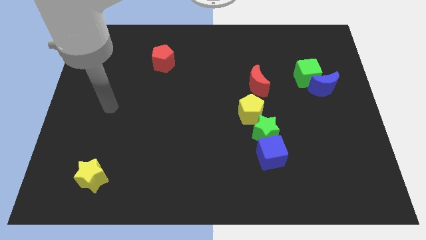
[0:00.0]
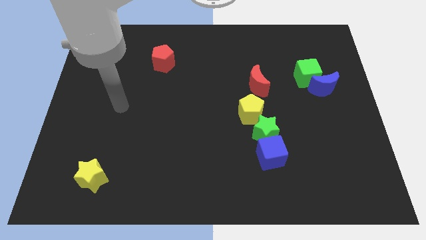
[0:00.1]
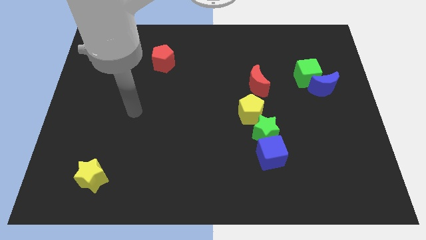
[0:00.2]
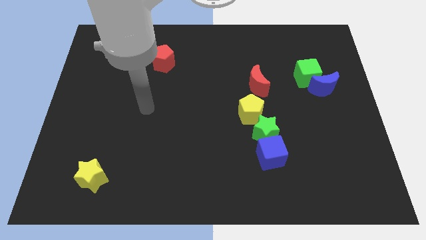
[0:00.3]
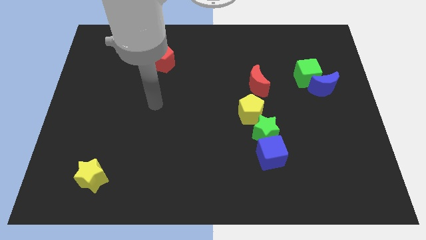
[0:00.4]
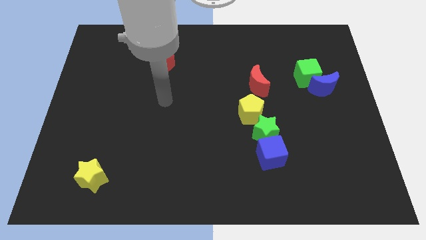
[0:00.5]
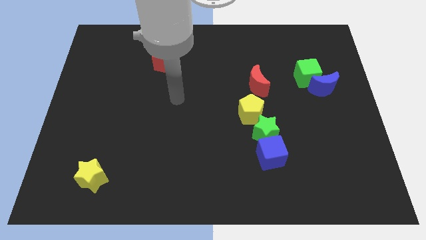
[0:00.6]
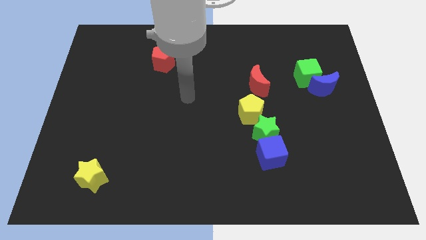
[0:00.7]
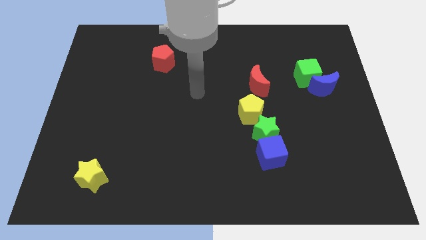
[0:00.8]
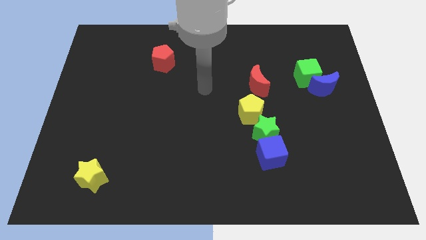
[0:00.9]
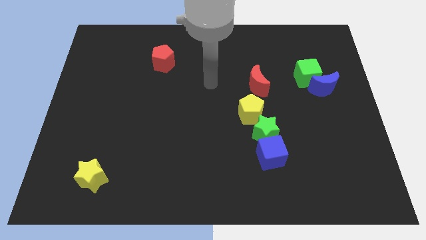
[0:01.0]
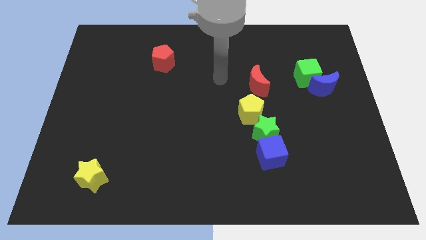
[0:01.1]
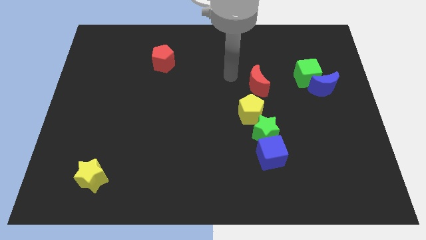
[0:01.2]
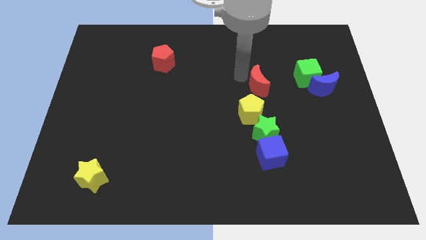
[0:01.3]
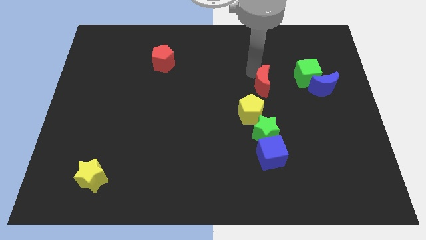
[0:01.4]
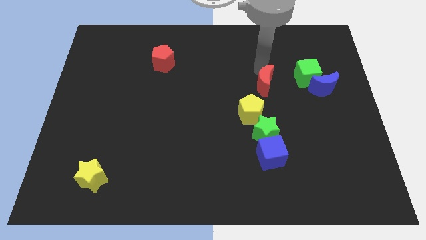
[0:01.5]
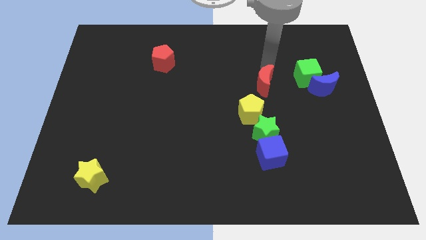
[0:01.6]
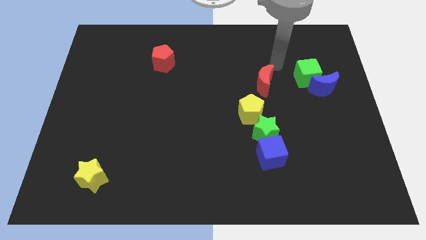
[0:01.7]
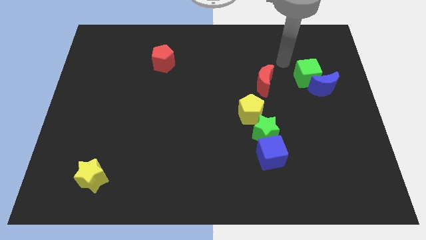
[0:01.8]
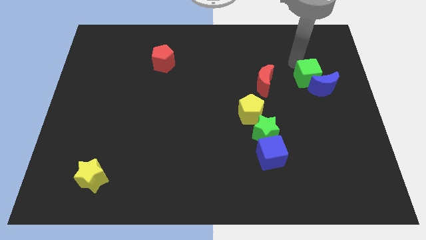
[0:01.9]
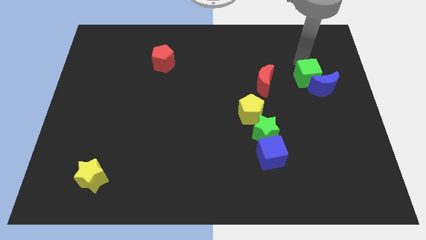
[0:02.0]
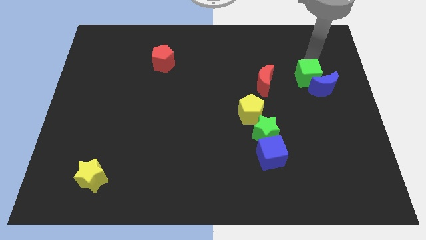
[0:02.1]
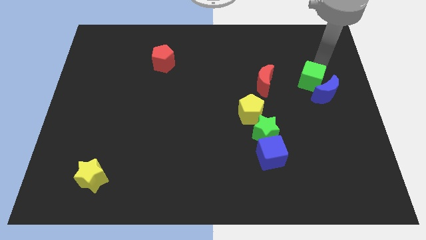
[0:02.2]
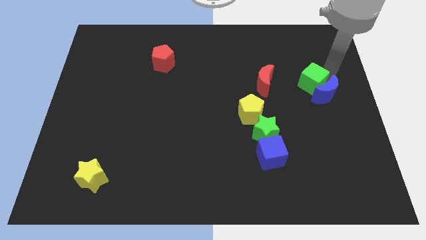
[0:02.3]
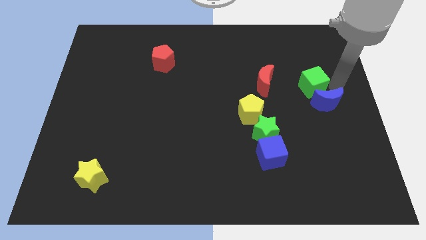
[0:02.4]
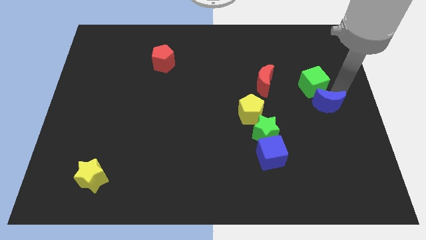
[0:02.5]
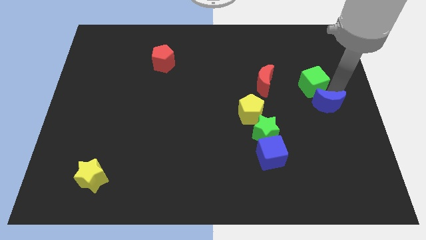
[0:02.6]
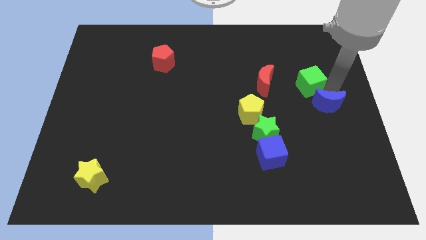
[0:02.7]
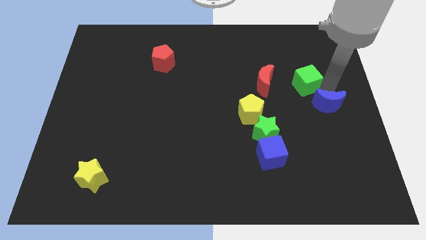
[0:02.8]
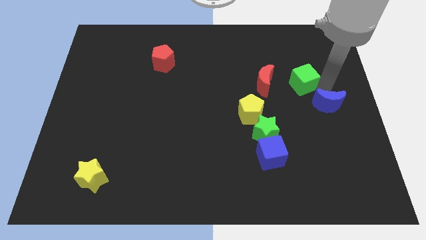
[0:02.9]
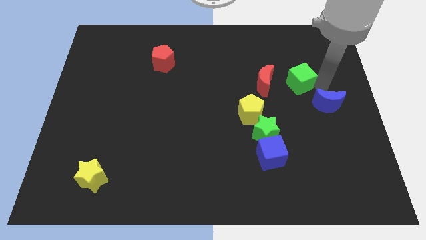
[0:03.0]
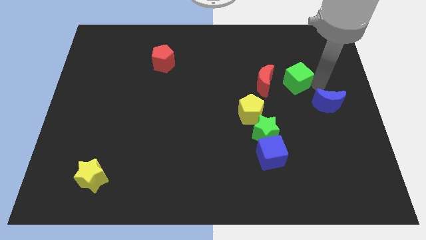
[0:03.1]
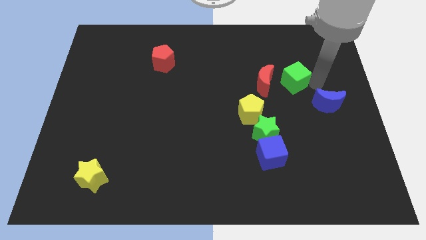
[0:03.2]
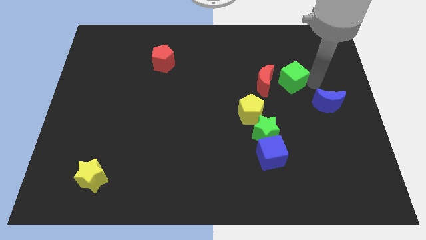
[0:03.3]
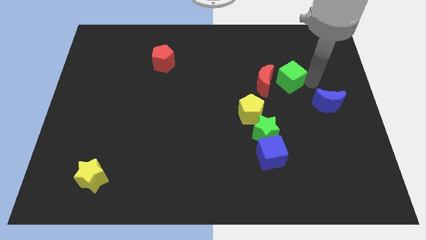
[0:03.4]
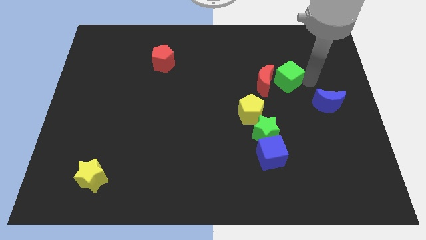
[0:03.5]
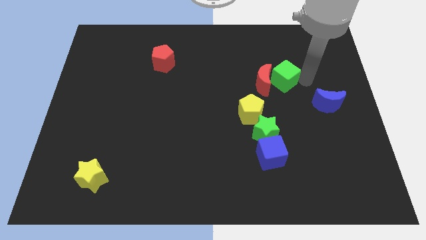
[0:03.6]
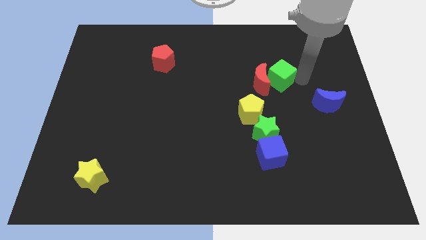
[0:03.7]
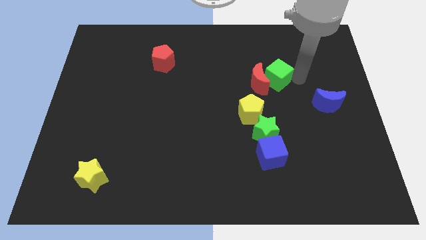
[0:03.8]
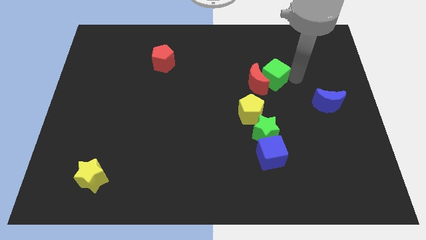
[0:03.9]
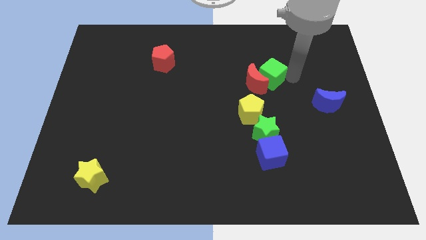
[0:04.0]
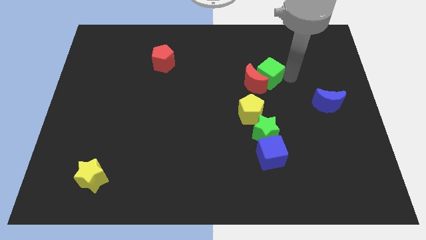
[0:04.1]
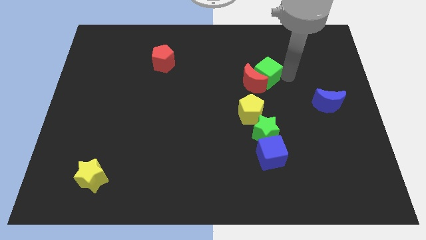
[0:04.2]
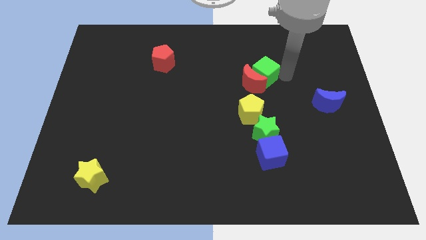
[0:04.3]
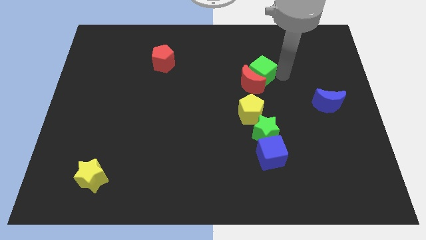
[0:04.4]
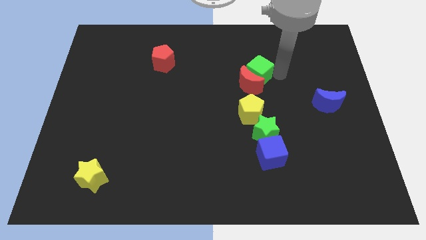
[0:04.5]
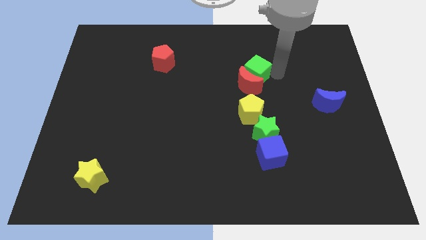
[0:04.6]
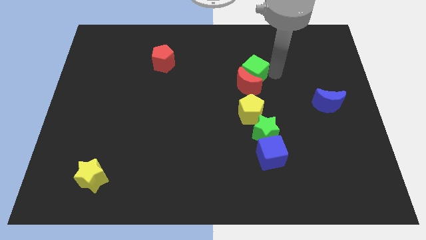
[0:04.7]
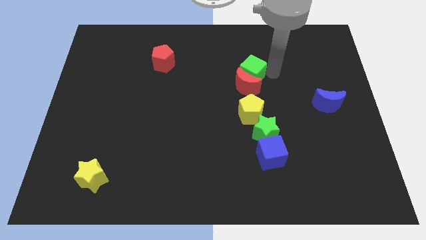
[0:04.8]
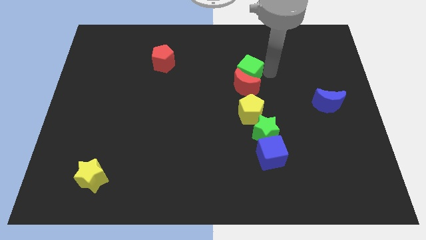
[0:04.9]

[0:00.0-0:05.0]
move the green cube to the middle of the board
